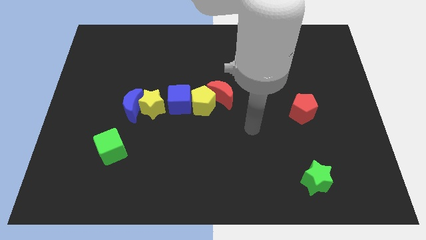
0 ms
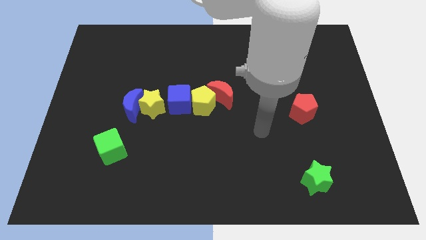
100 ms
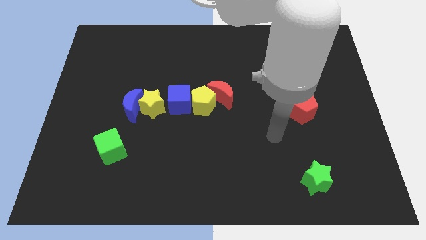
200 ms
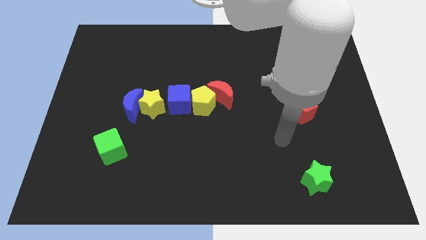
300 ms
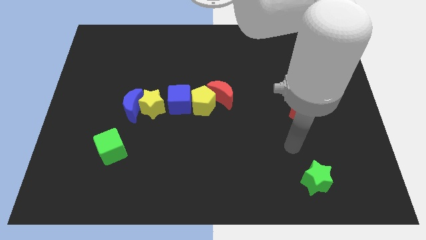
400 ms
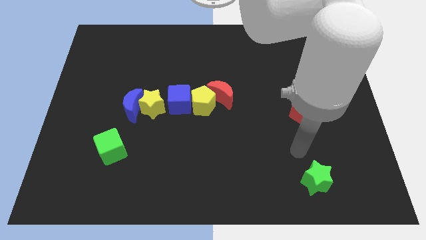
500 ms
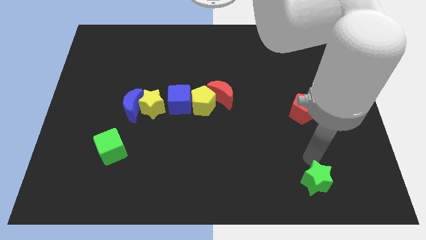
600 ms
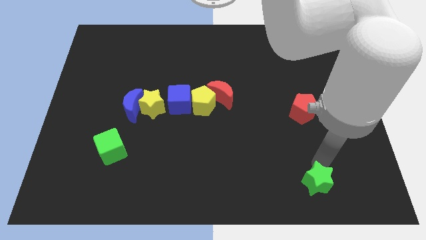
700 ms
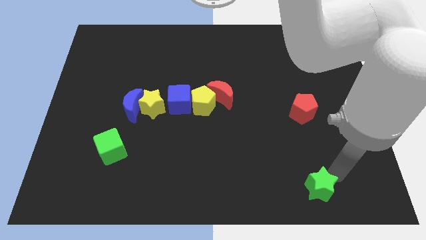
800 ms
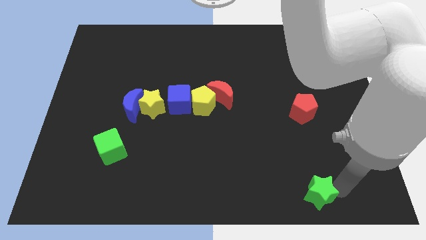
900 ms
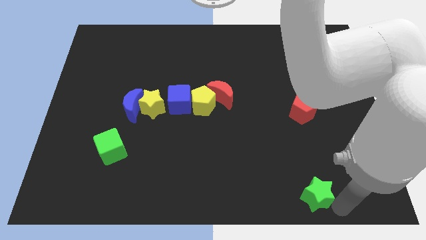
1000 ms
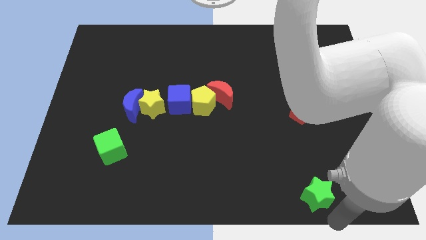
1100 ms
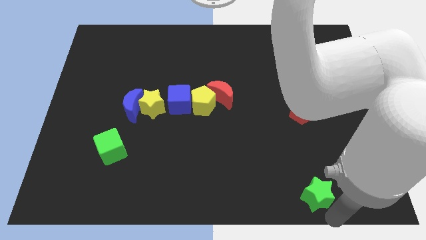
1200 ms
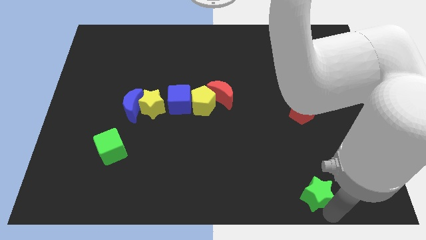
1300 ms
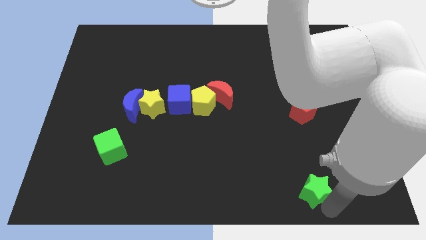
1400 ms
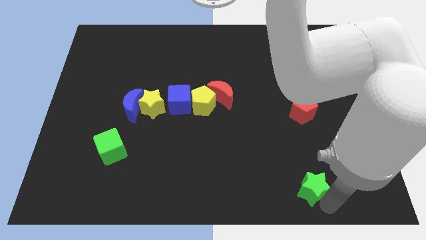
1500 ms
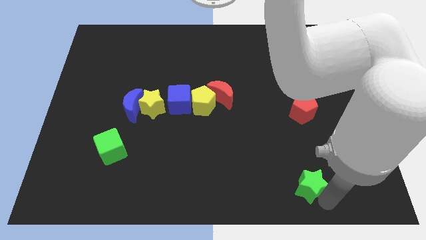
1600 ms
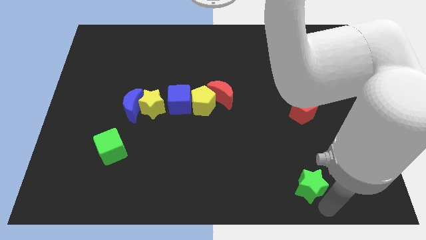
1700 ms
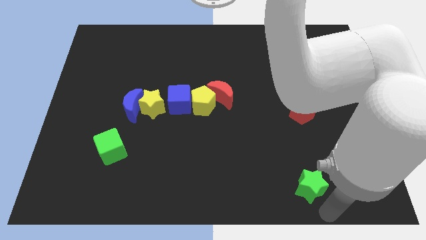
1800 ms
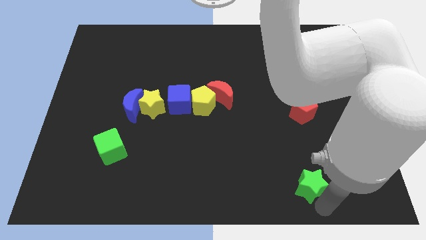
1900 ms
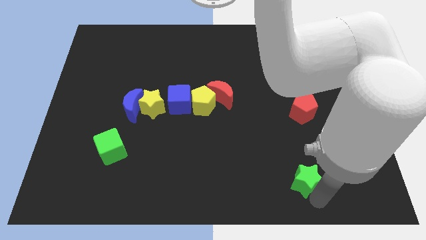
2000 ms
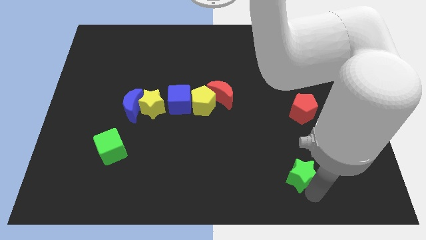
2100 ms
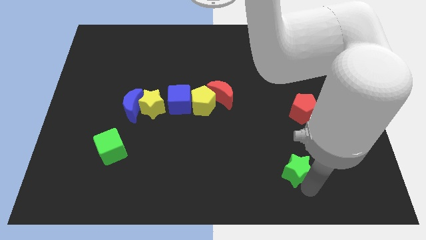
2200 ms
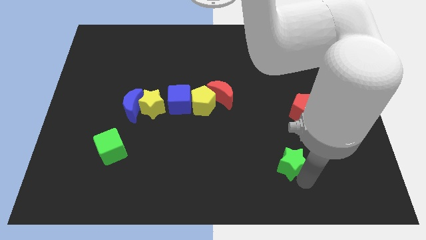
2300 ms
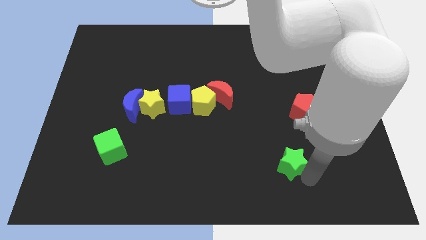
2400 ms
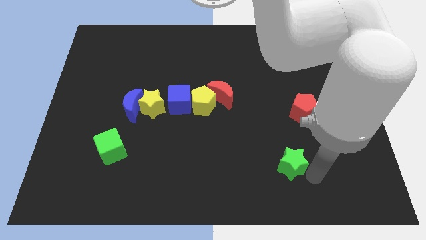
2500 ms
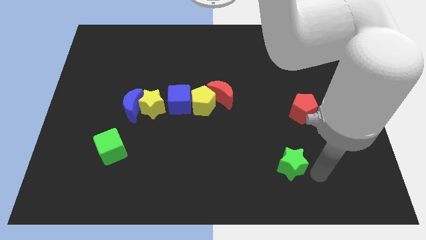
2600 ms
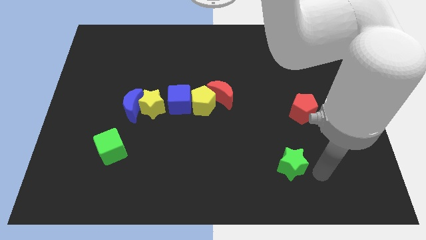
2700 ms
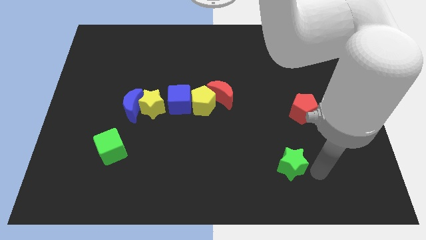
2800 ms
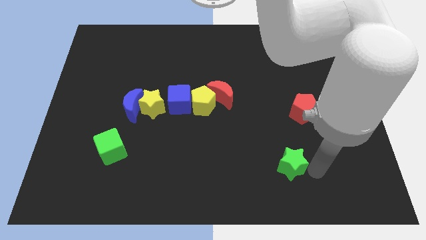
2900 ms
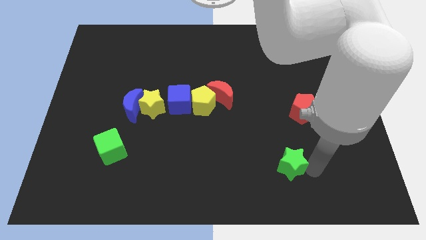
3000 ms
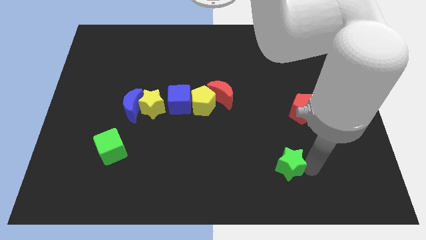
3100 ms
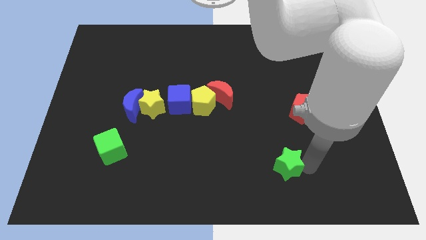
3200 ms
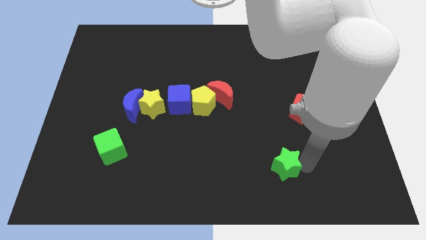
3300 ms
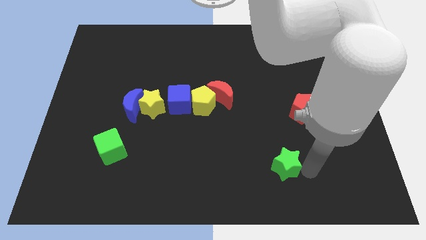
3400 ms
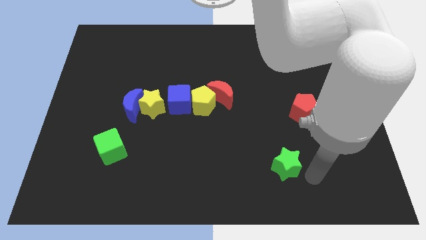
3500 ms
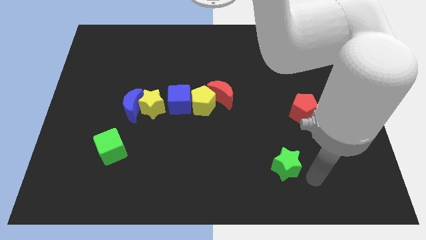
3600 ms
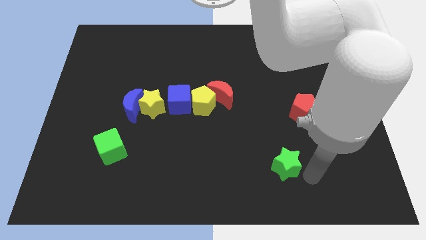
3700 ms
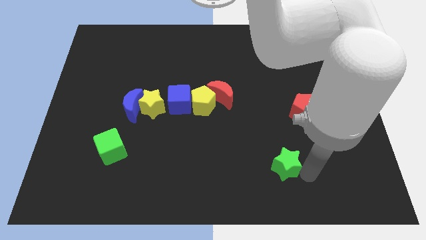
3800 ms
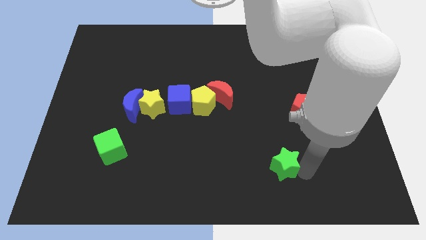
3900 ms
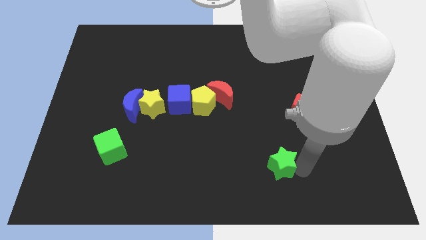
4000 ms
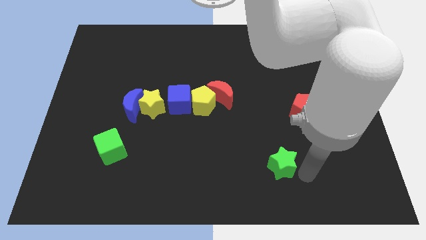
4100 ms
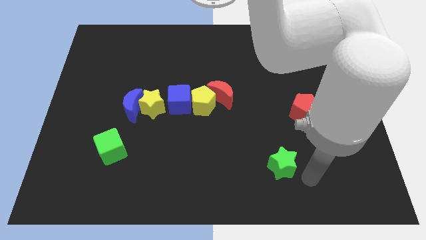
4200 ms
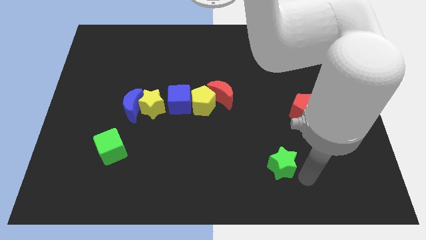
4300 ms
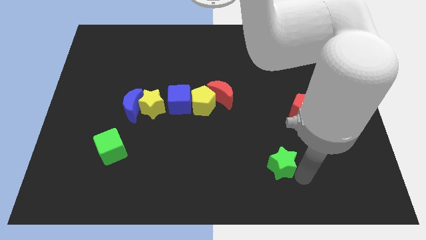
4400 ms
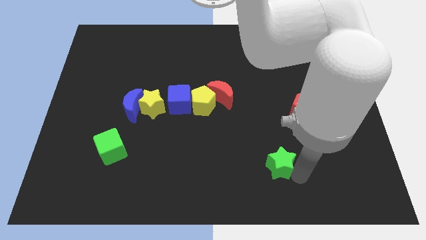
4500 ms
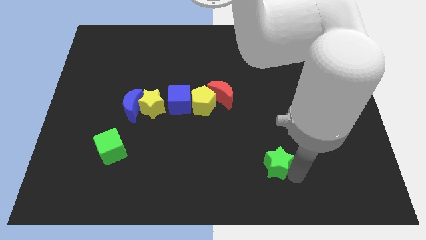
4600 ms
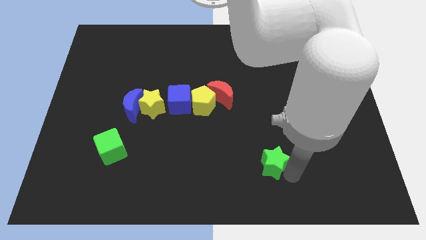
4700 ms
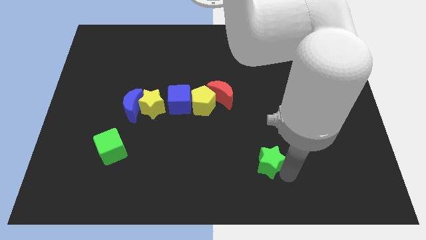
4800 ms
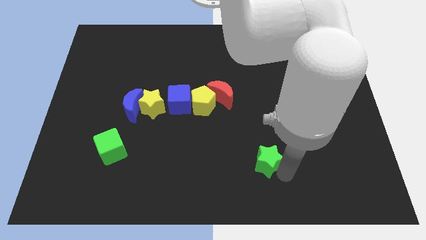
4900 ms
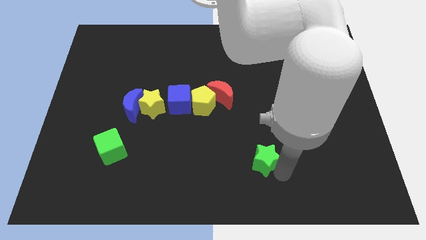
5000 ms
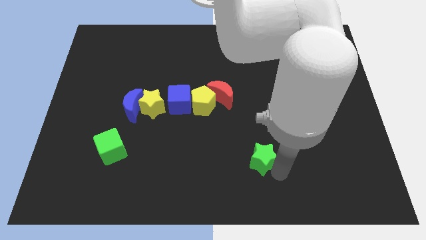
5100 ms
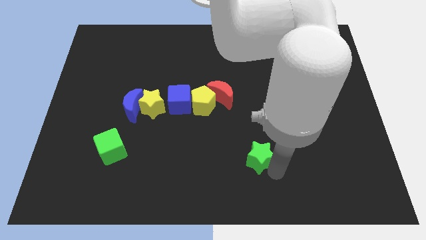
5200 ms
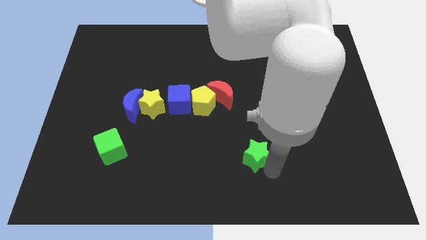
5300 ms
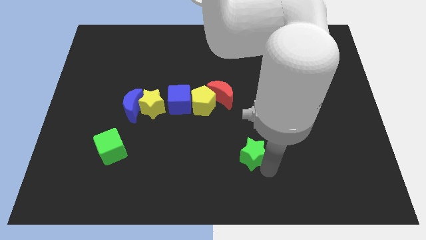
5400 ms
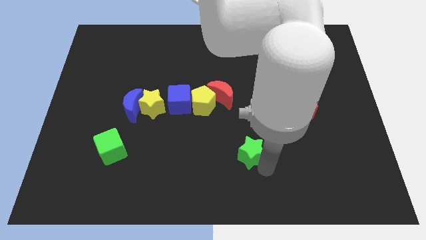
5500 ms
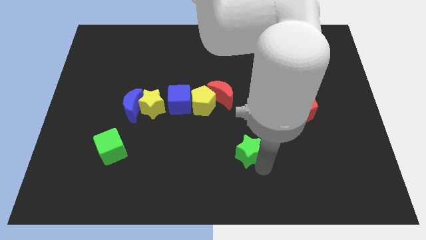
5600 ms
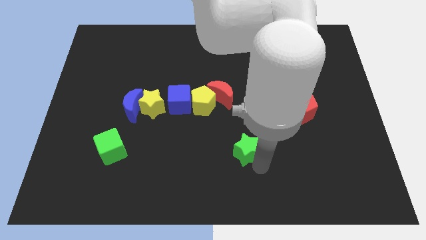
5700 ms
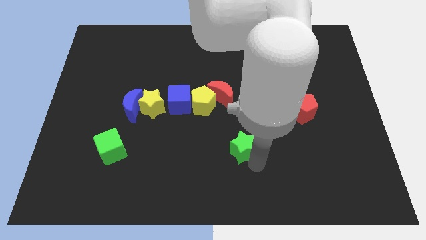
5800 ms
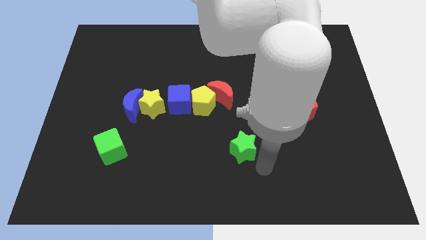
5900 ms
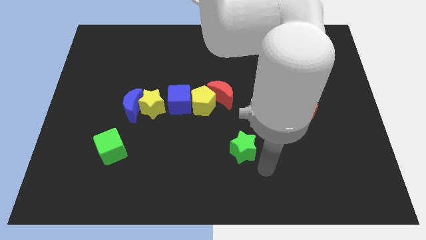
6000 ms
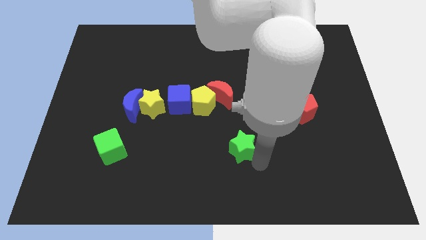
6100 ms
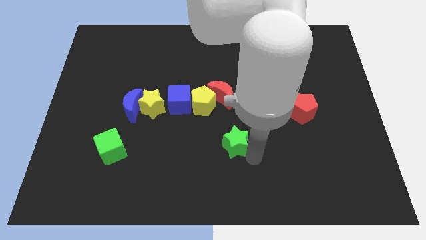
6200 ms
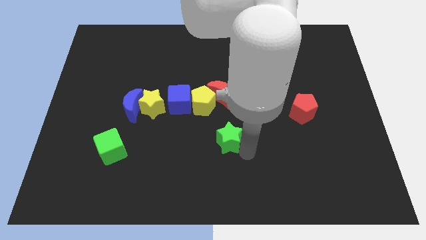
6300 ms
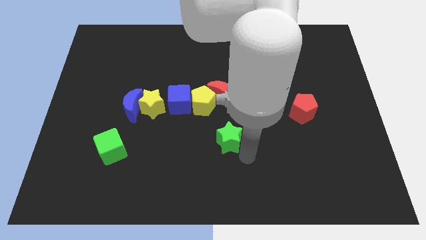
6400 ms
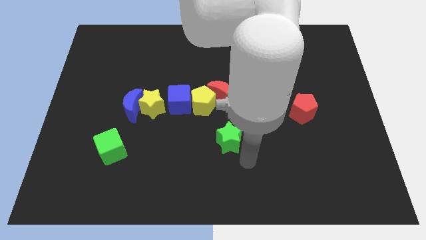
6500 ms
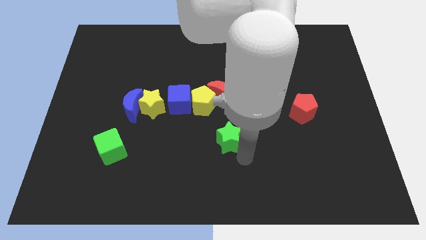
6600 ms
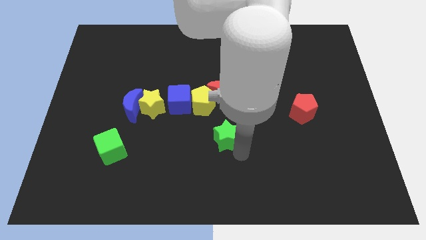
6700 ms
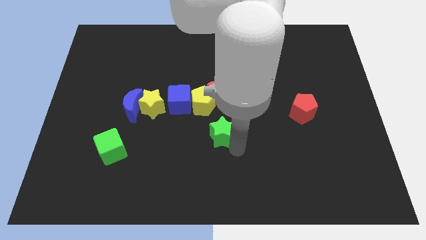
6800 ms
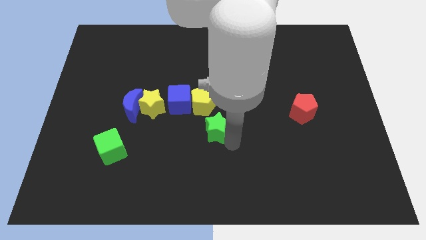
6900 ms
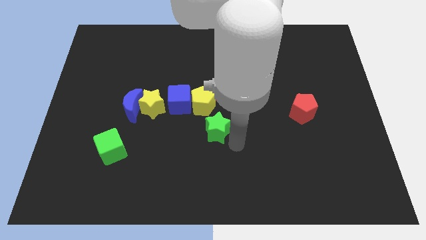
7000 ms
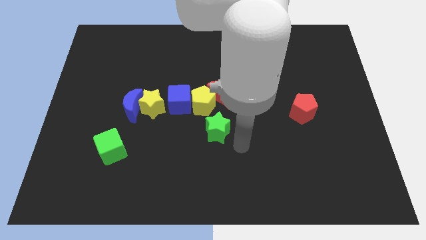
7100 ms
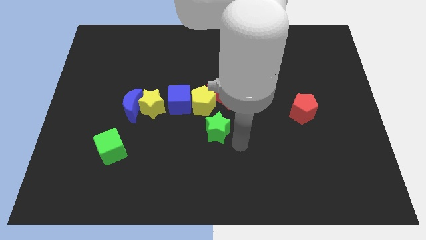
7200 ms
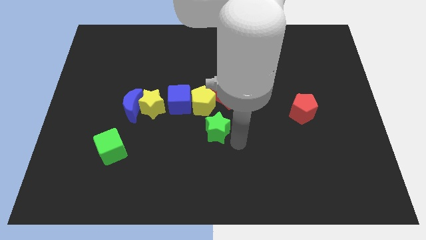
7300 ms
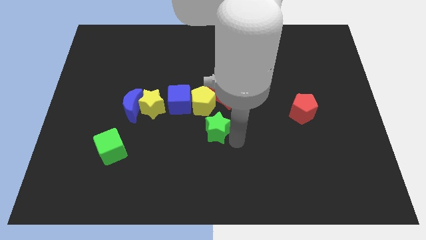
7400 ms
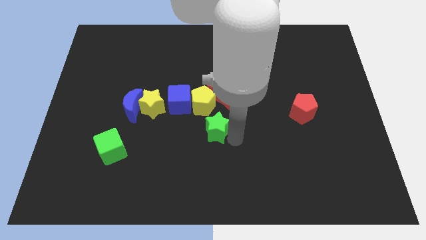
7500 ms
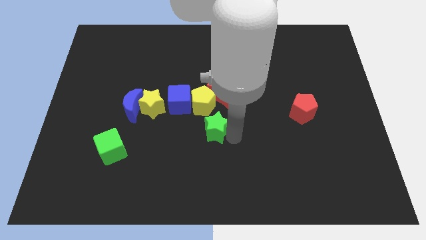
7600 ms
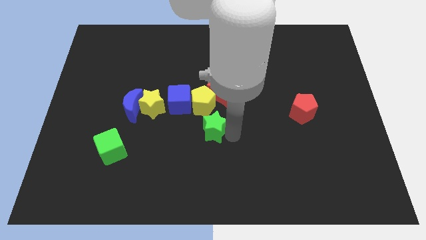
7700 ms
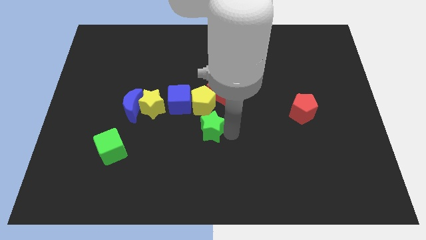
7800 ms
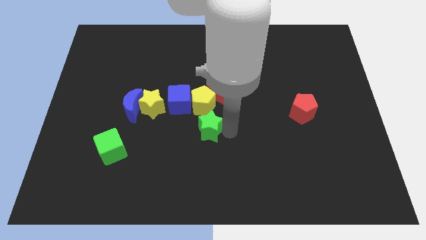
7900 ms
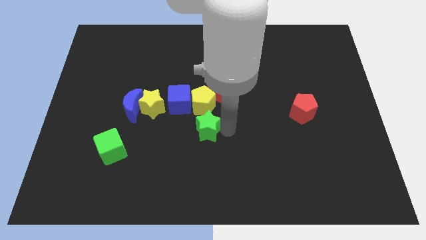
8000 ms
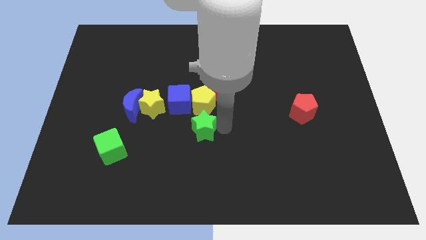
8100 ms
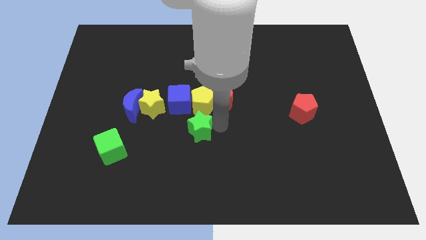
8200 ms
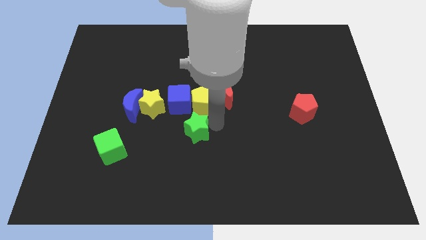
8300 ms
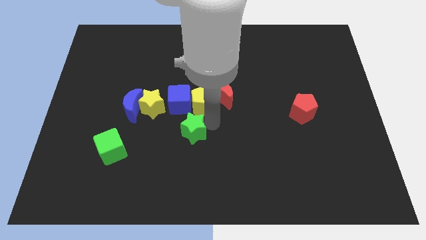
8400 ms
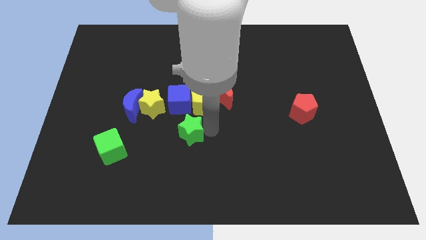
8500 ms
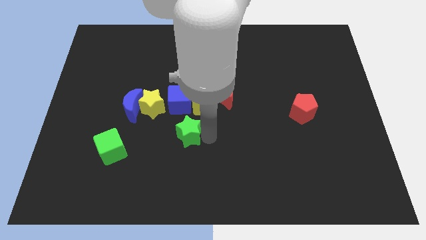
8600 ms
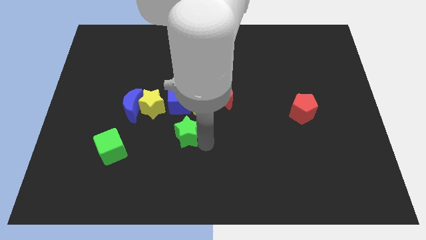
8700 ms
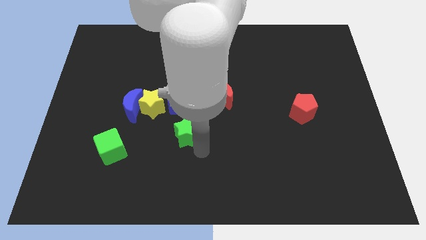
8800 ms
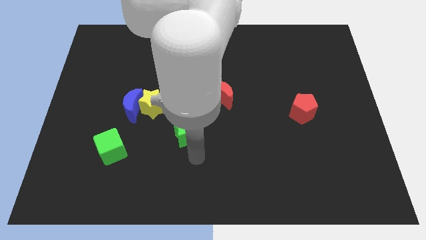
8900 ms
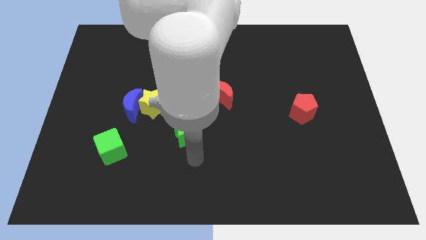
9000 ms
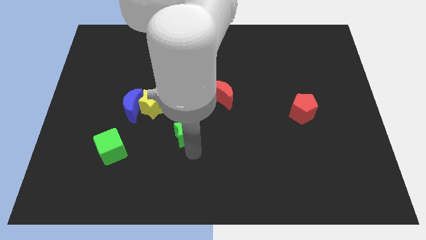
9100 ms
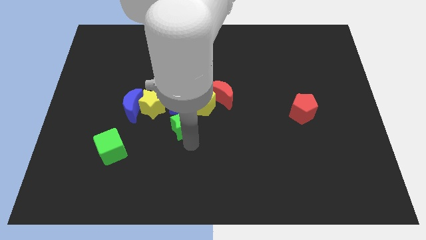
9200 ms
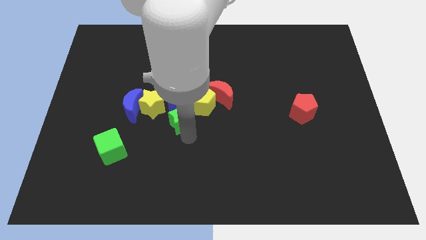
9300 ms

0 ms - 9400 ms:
move the green star next to the blue cube
